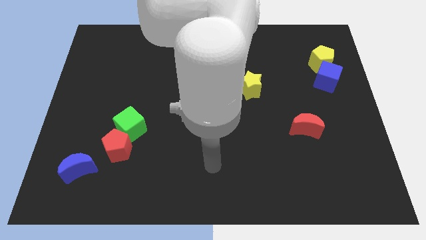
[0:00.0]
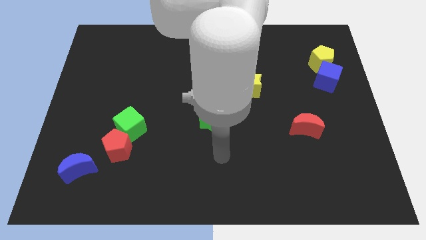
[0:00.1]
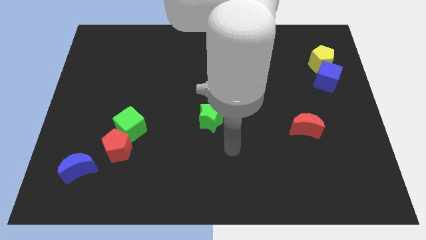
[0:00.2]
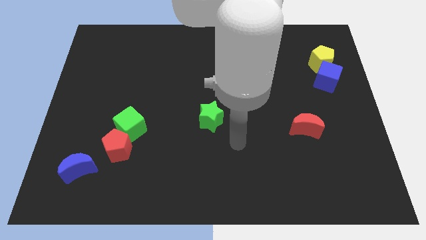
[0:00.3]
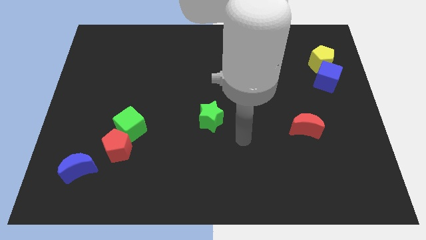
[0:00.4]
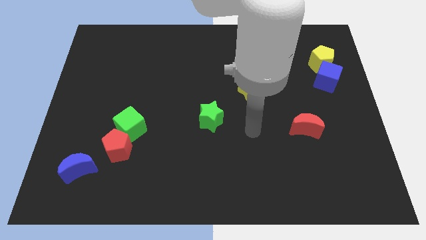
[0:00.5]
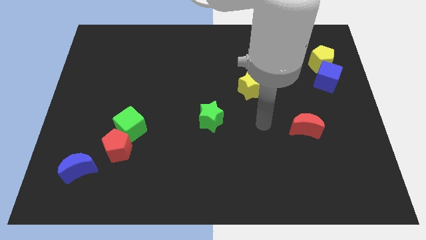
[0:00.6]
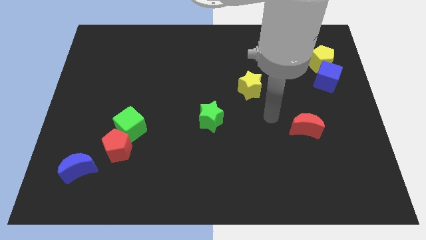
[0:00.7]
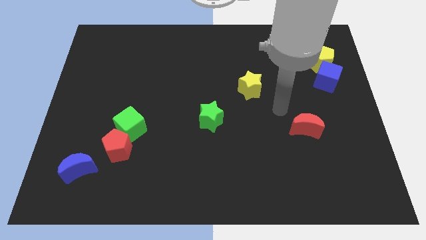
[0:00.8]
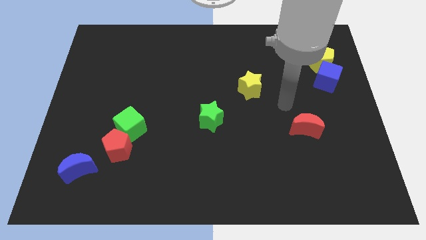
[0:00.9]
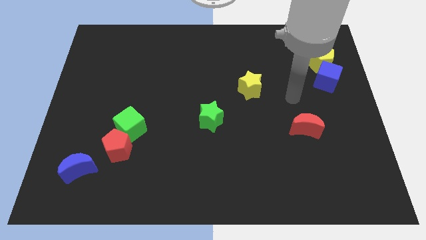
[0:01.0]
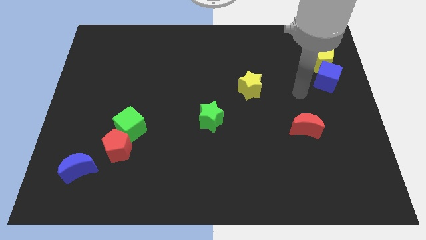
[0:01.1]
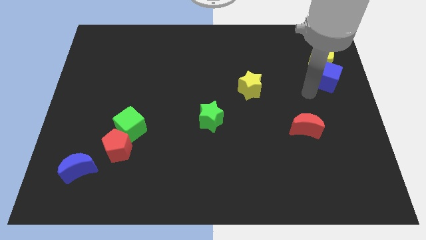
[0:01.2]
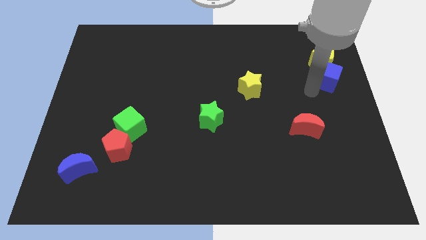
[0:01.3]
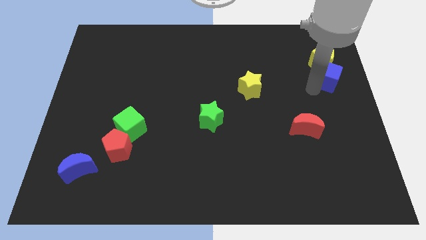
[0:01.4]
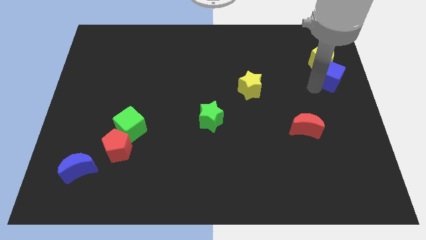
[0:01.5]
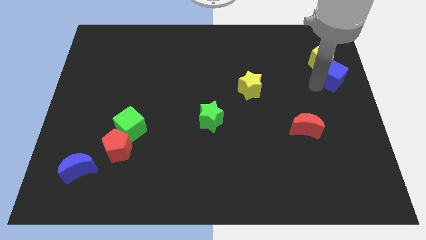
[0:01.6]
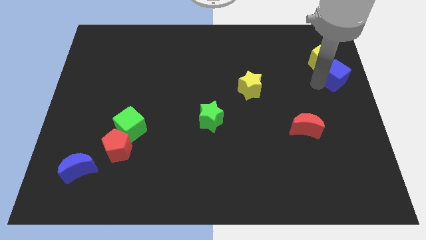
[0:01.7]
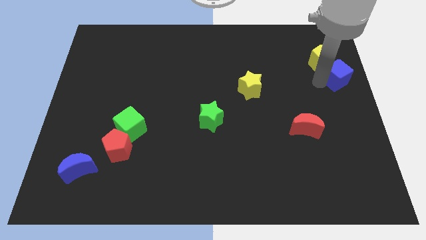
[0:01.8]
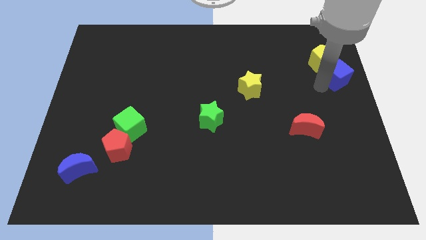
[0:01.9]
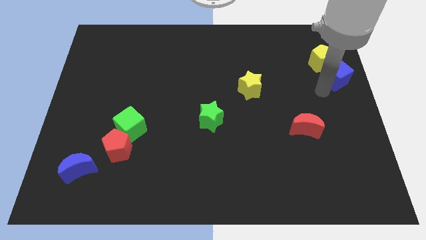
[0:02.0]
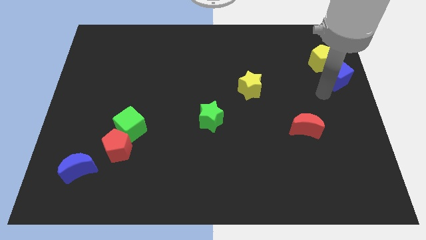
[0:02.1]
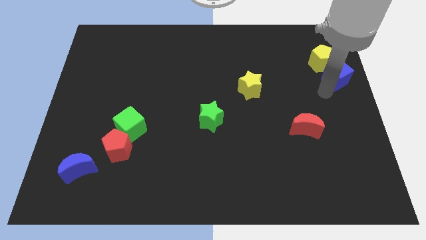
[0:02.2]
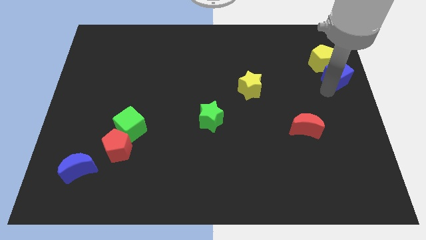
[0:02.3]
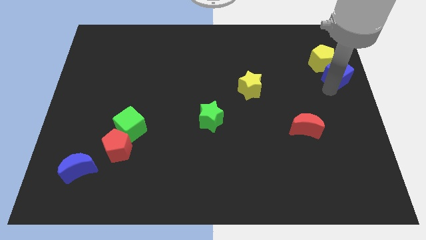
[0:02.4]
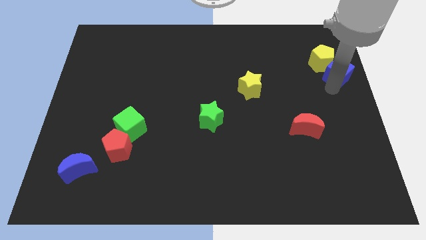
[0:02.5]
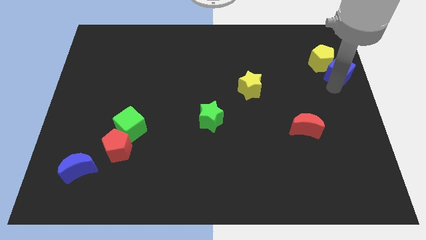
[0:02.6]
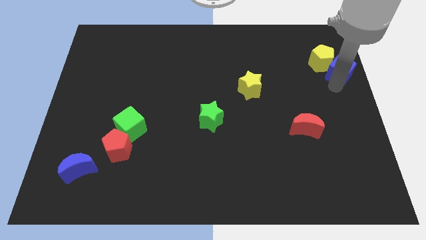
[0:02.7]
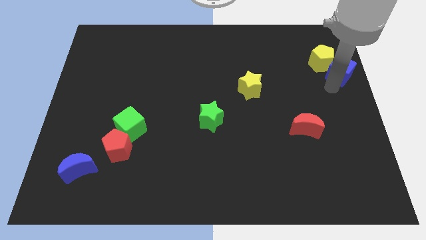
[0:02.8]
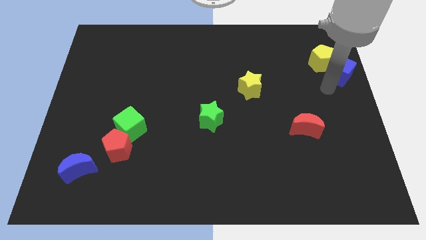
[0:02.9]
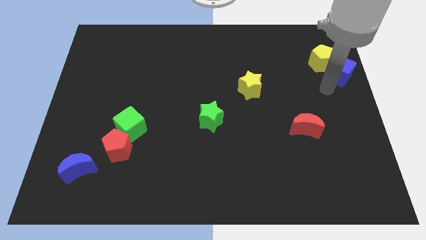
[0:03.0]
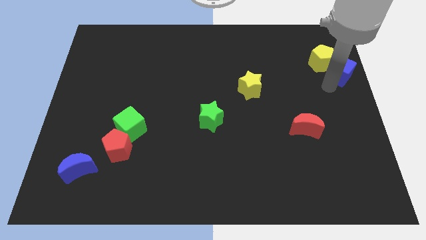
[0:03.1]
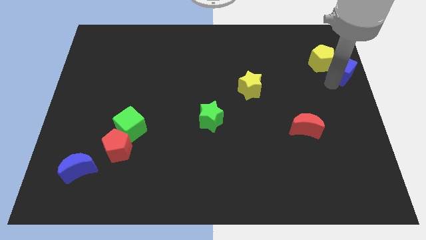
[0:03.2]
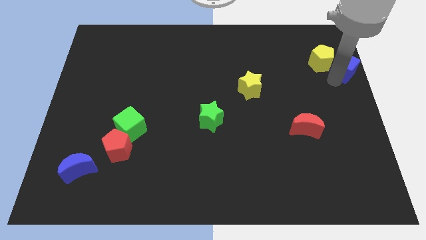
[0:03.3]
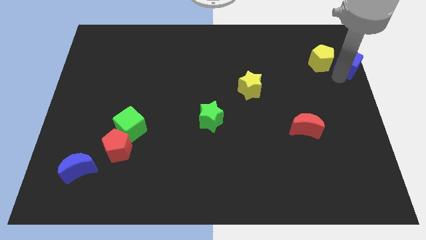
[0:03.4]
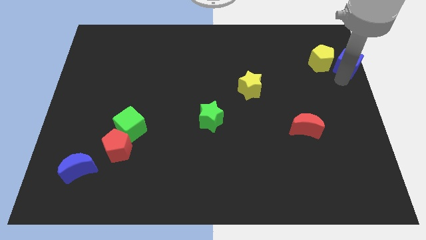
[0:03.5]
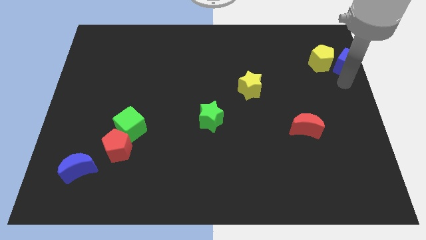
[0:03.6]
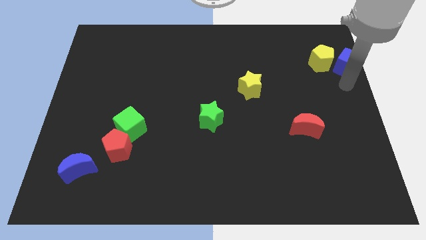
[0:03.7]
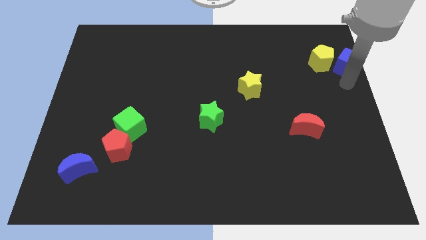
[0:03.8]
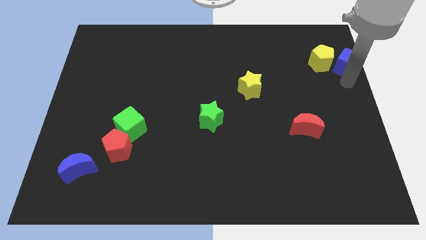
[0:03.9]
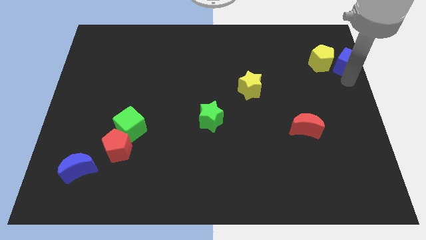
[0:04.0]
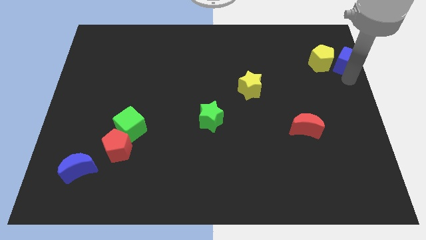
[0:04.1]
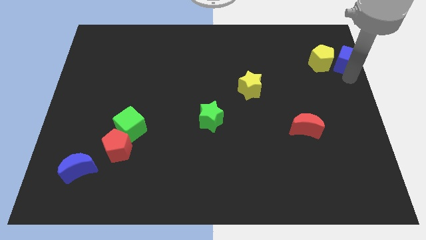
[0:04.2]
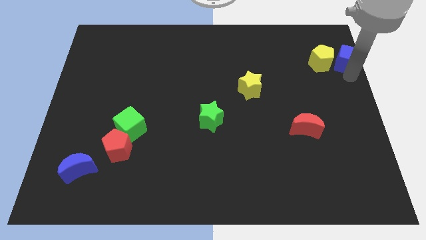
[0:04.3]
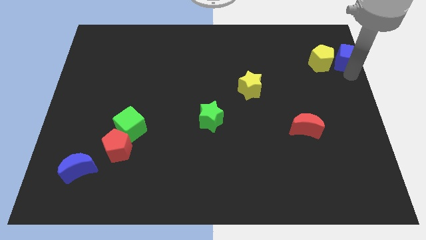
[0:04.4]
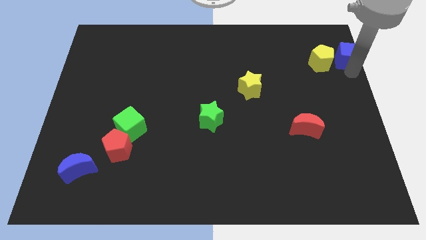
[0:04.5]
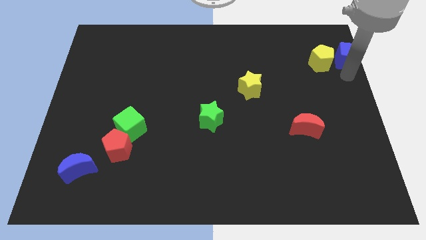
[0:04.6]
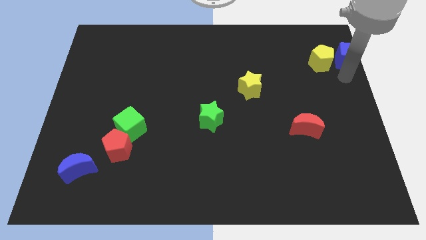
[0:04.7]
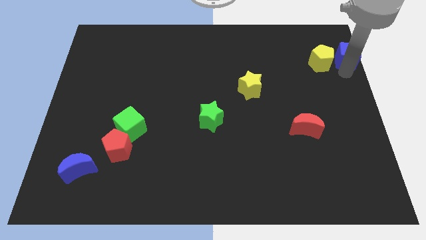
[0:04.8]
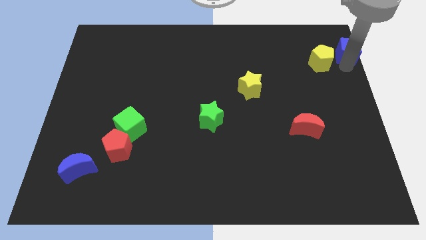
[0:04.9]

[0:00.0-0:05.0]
push the blue cube to the top right of the board

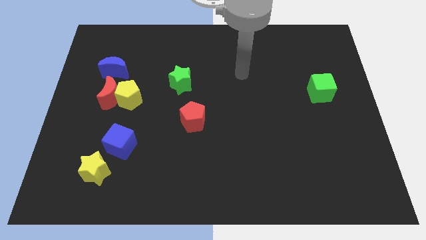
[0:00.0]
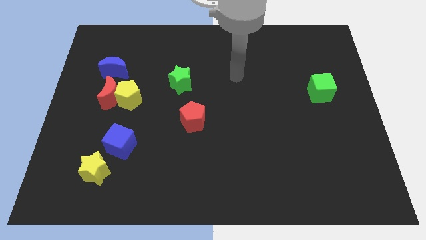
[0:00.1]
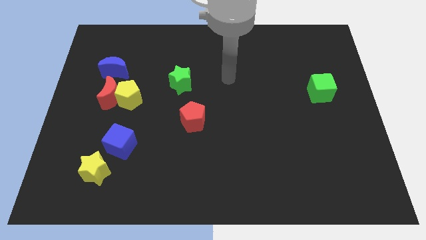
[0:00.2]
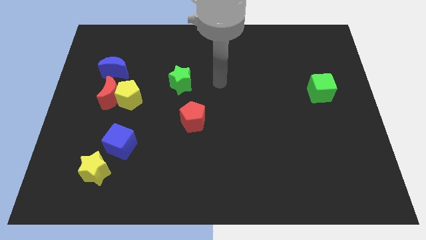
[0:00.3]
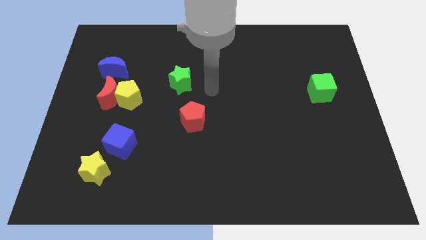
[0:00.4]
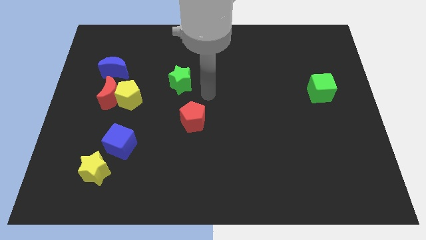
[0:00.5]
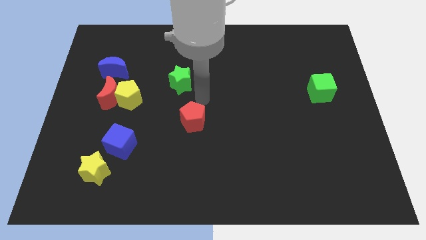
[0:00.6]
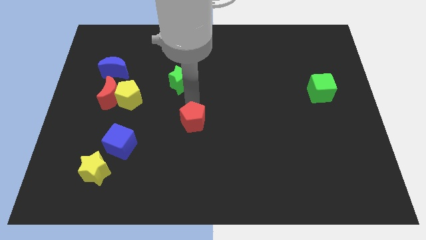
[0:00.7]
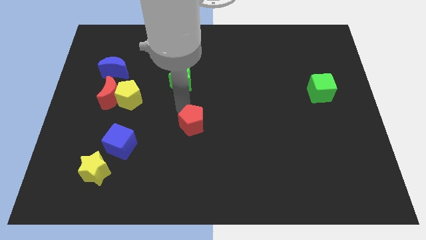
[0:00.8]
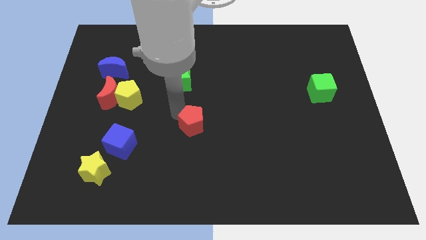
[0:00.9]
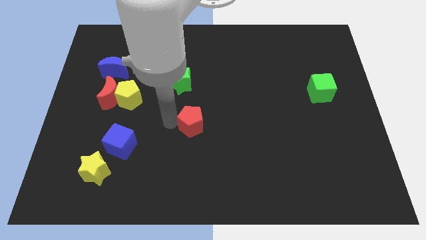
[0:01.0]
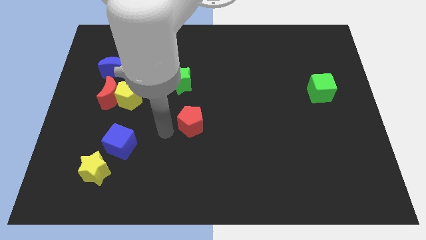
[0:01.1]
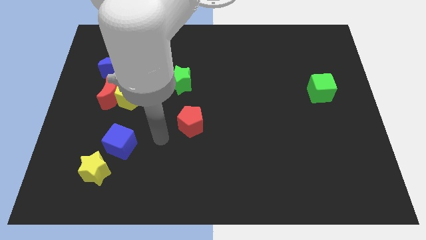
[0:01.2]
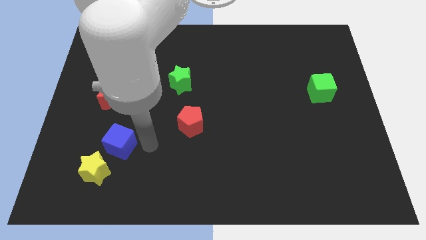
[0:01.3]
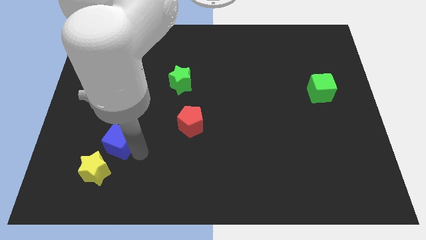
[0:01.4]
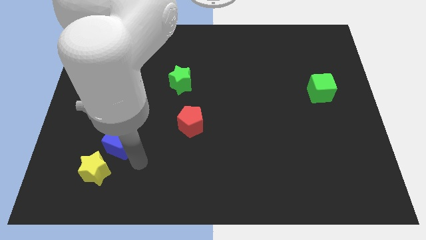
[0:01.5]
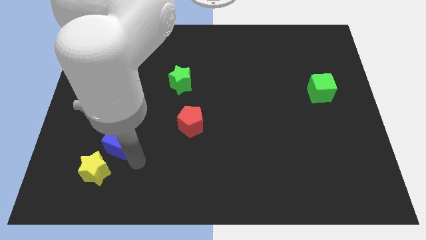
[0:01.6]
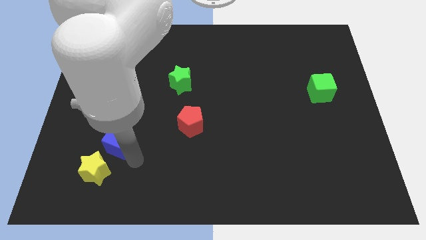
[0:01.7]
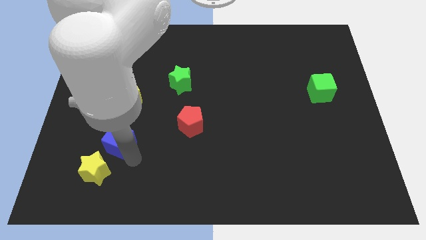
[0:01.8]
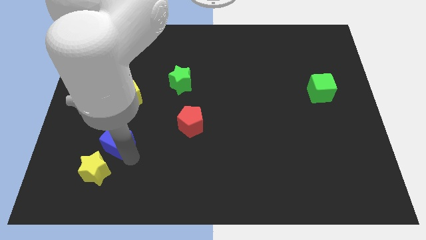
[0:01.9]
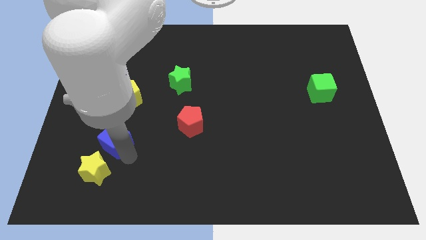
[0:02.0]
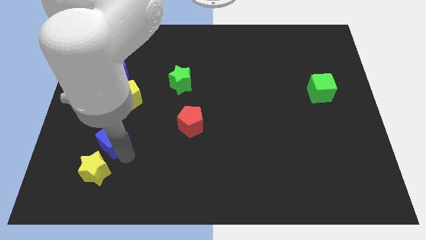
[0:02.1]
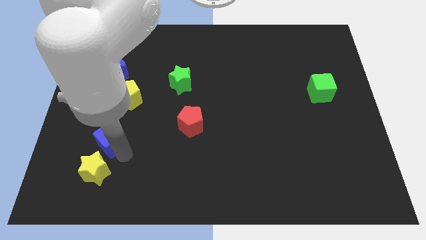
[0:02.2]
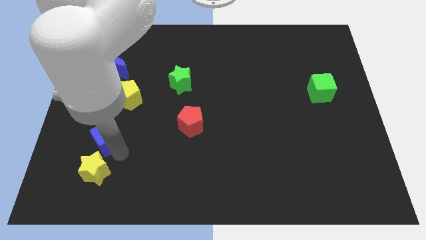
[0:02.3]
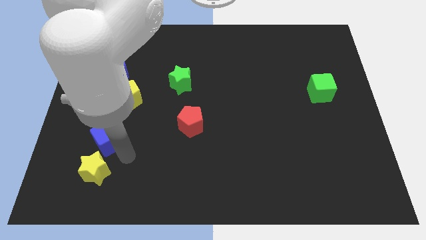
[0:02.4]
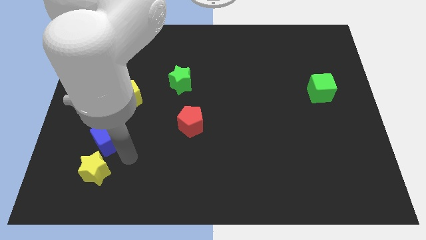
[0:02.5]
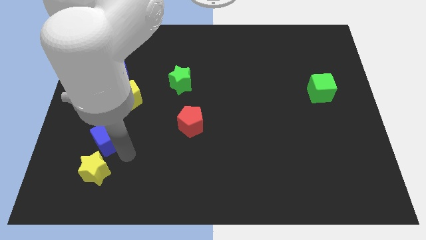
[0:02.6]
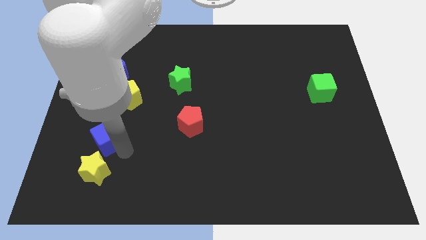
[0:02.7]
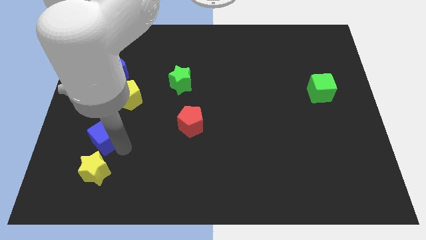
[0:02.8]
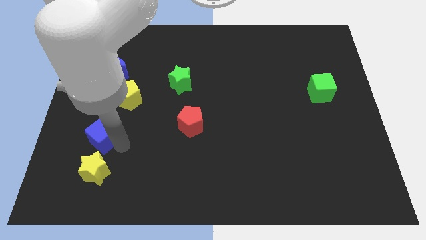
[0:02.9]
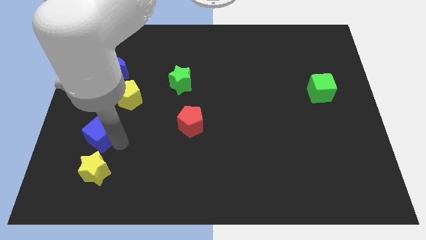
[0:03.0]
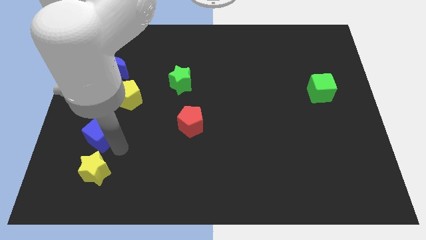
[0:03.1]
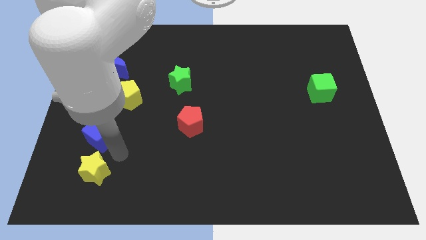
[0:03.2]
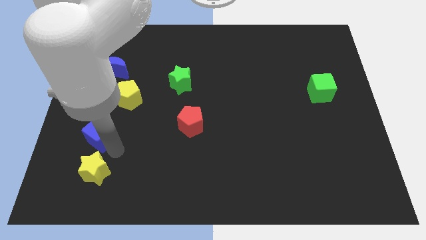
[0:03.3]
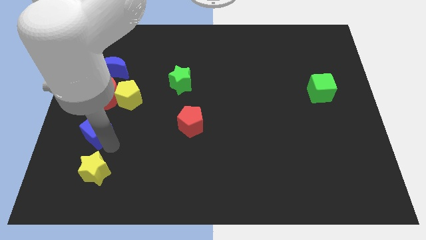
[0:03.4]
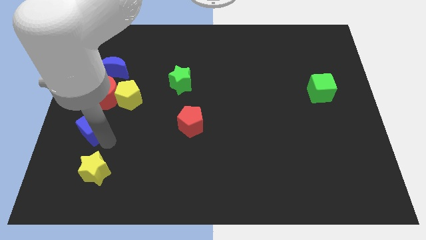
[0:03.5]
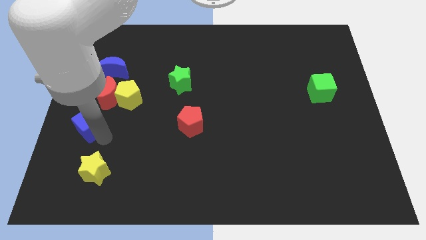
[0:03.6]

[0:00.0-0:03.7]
move the blue cube to the left side
